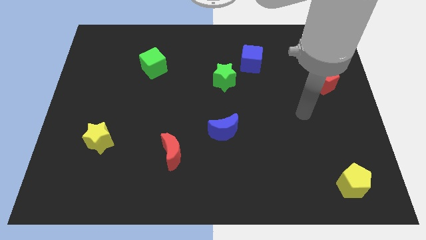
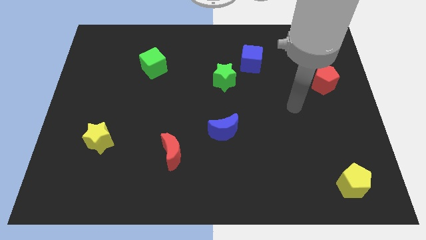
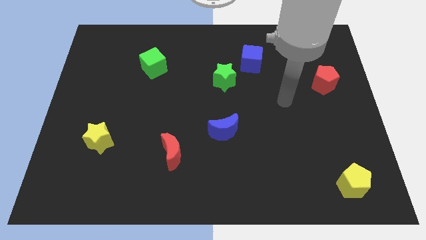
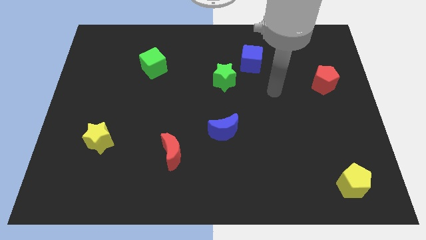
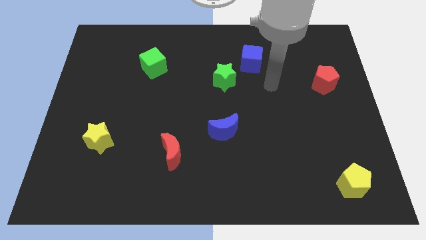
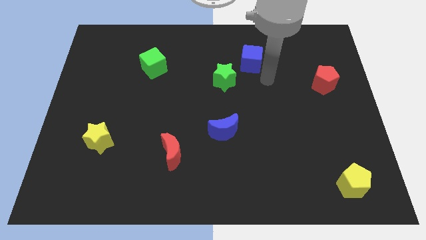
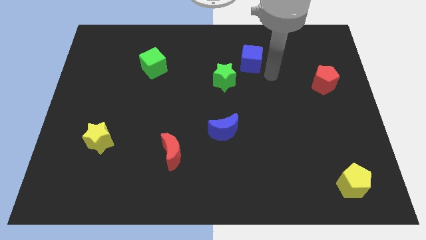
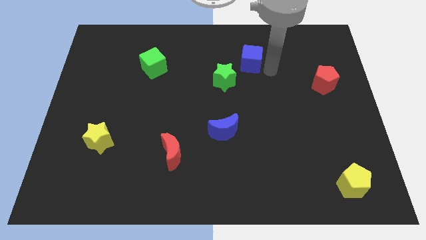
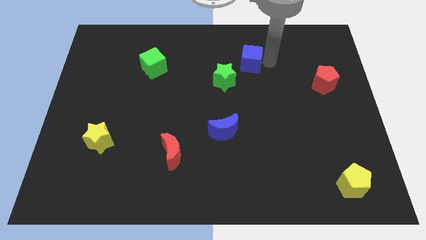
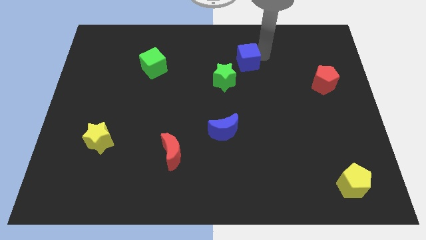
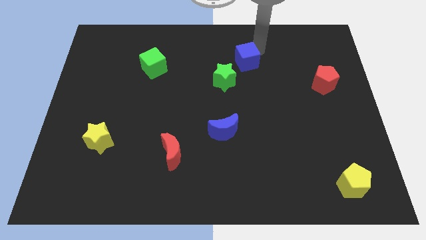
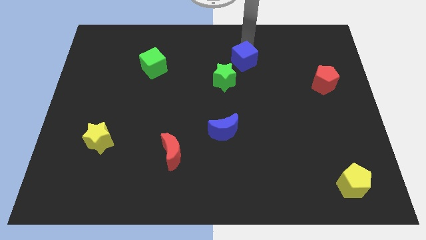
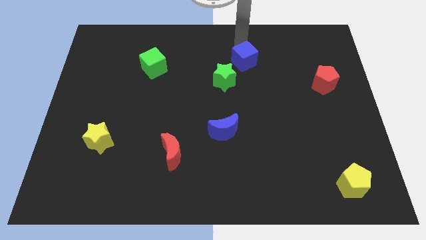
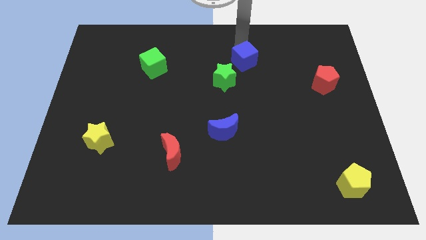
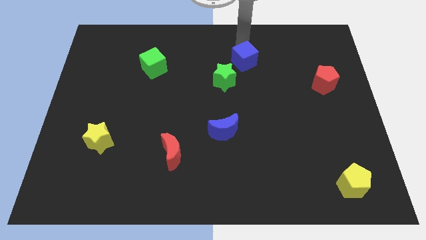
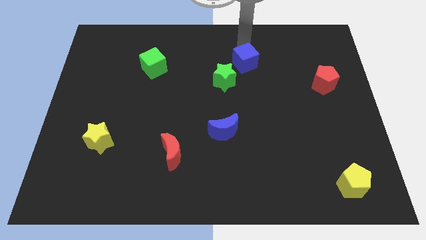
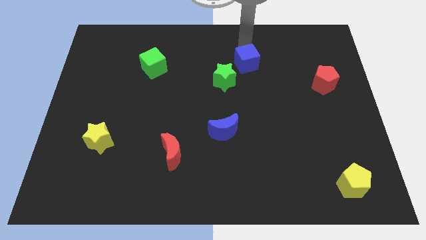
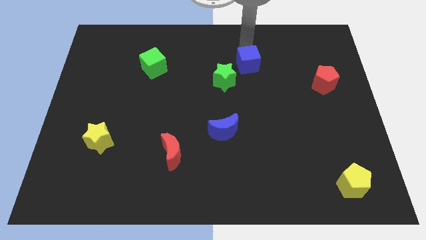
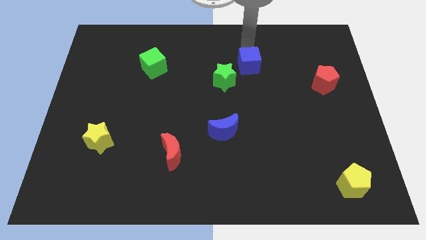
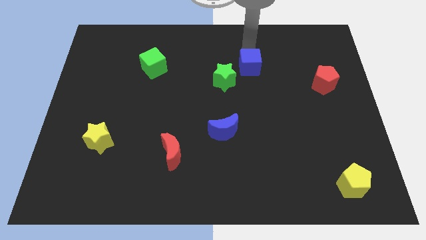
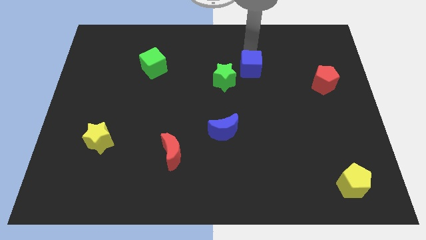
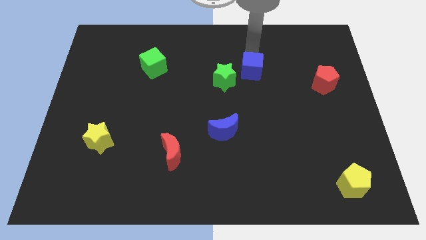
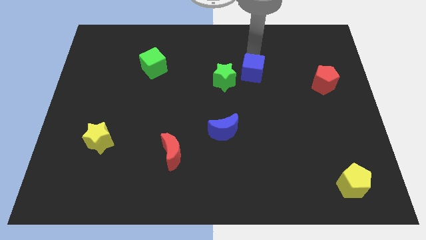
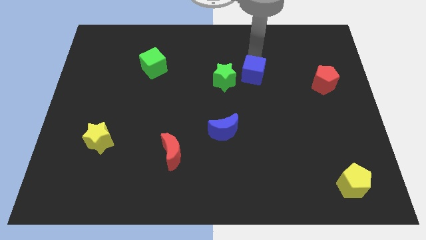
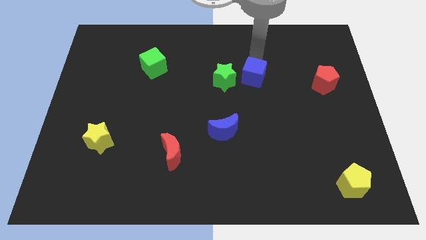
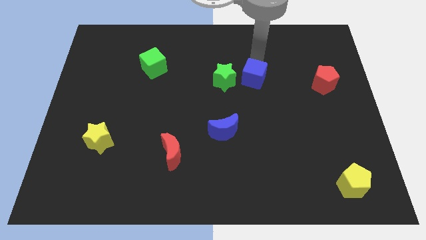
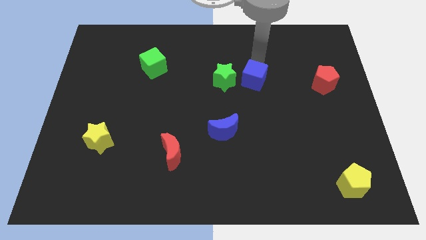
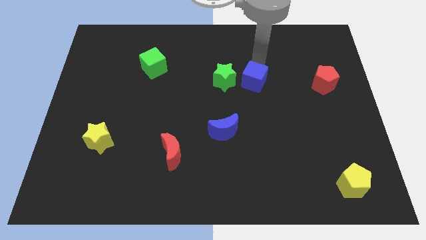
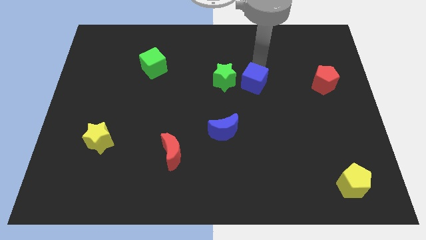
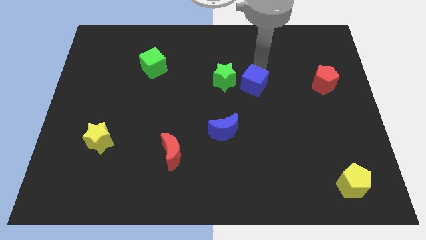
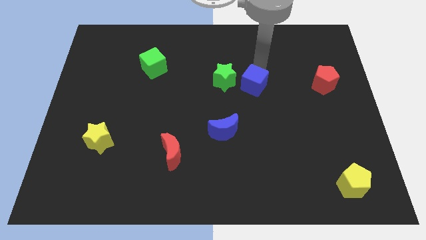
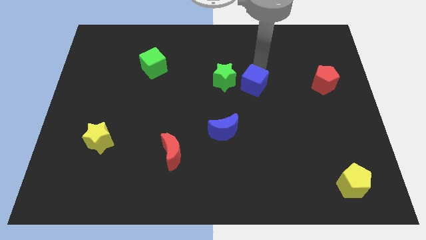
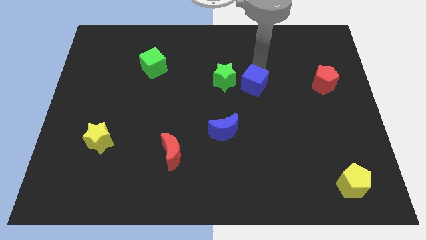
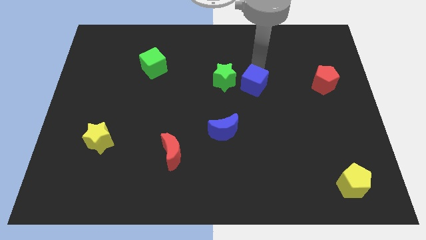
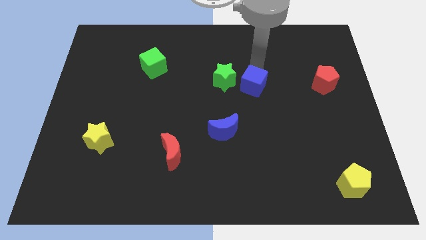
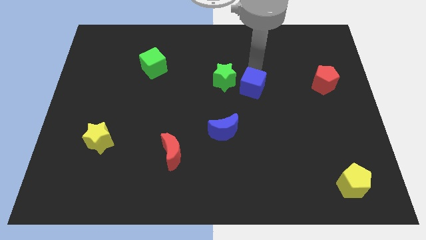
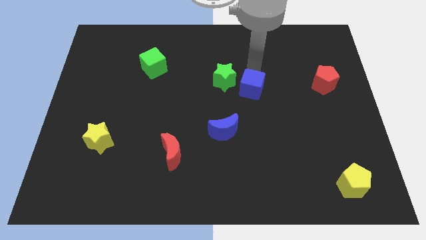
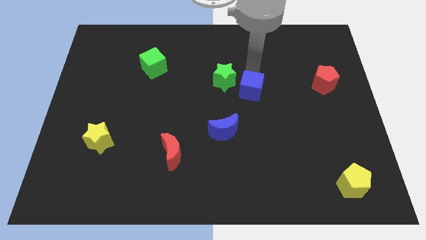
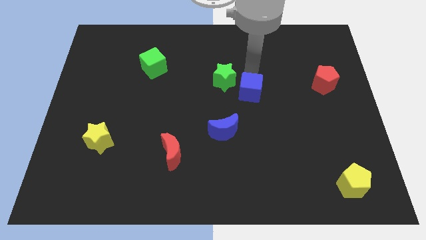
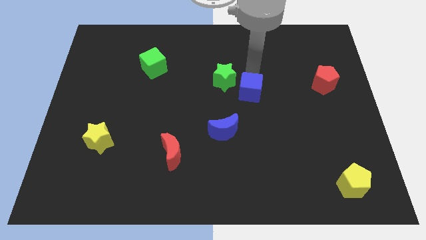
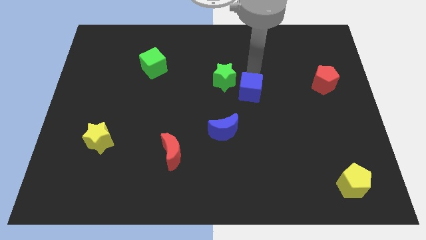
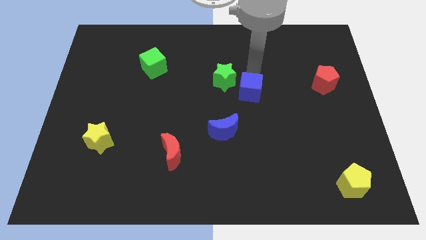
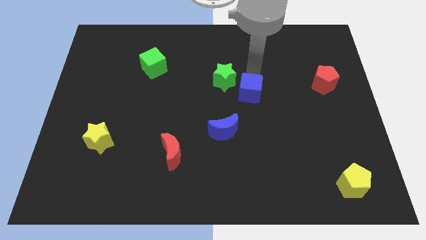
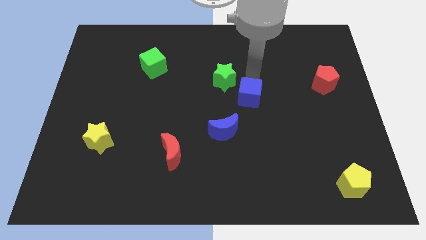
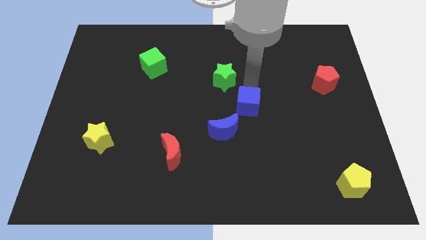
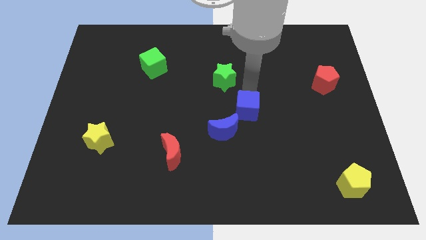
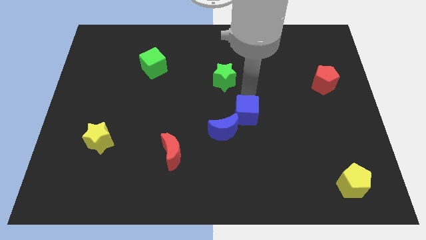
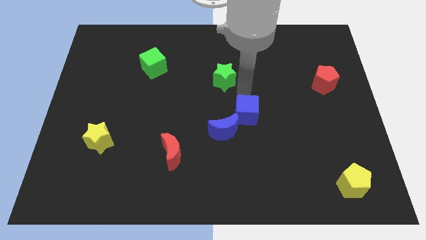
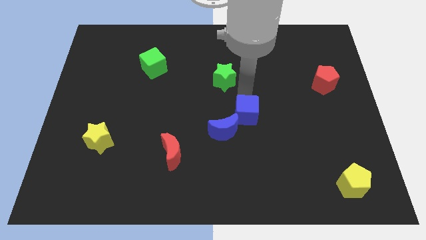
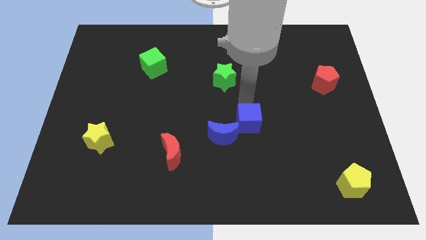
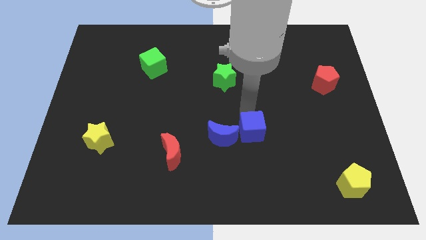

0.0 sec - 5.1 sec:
push the blue cube downwards

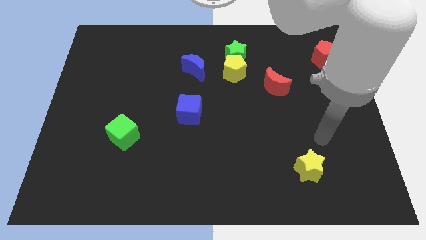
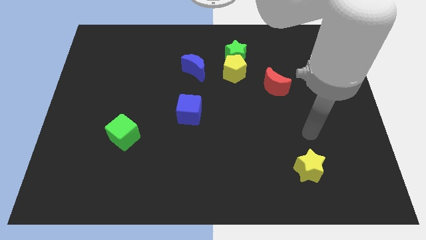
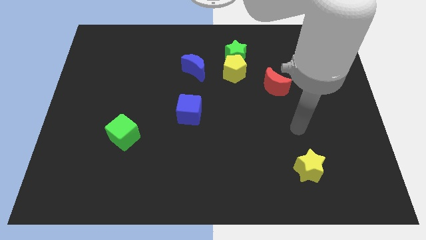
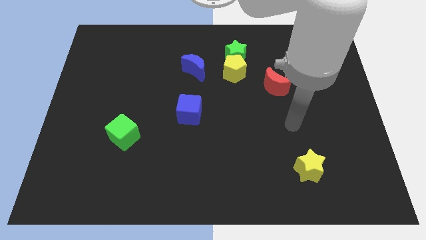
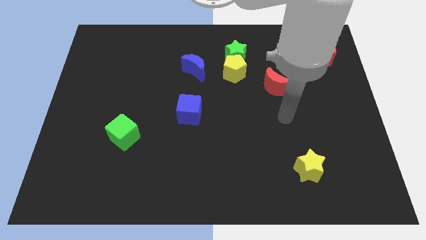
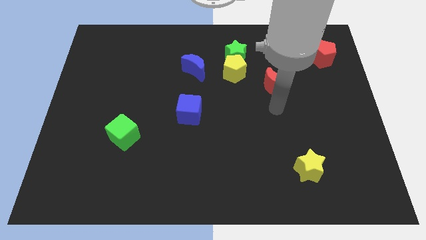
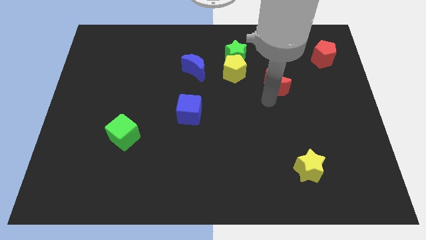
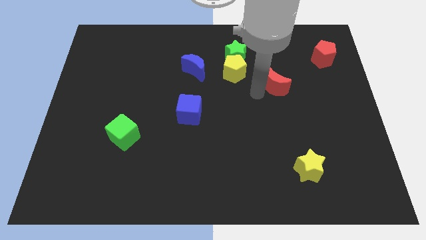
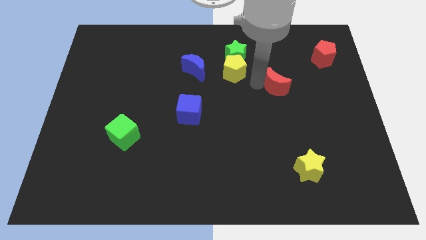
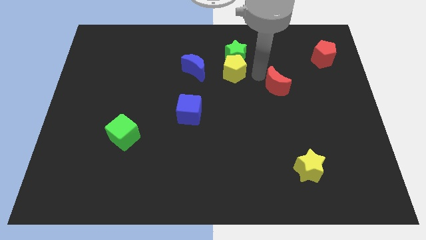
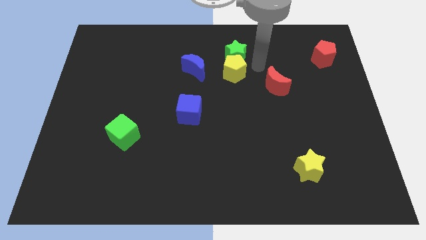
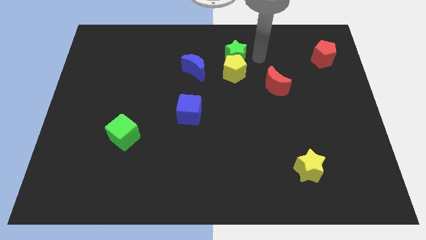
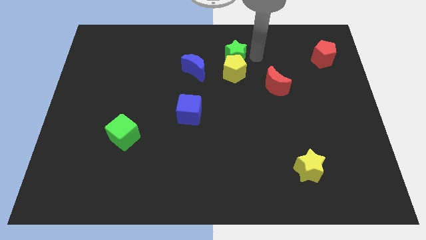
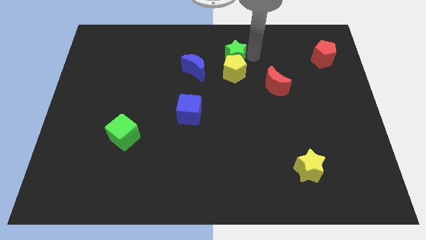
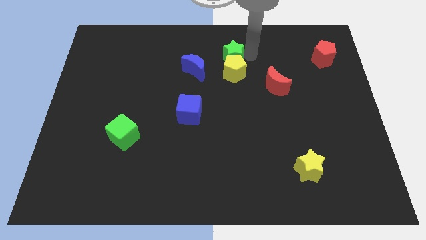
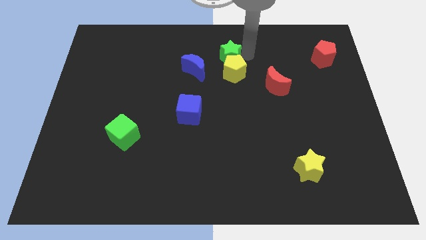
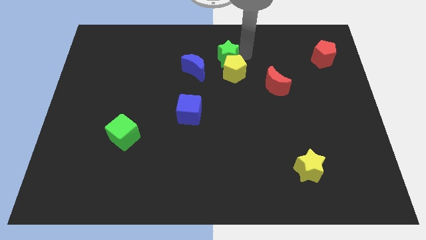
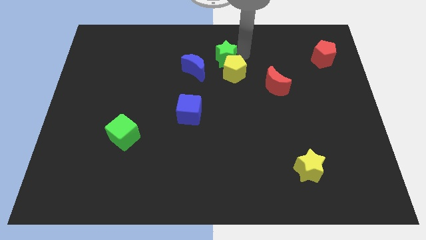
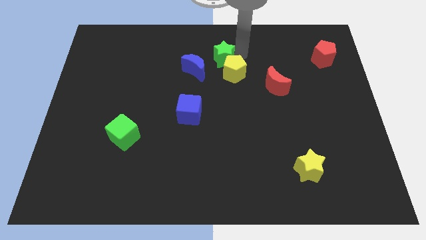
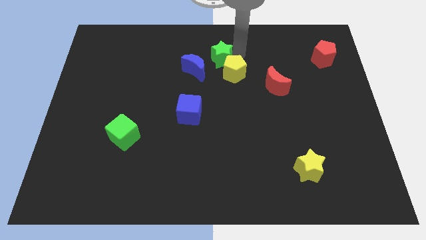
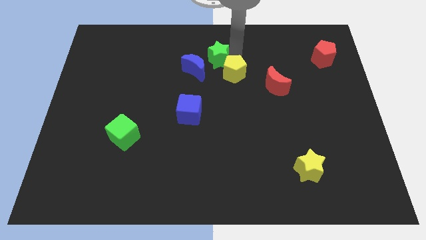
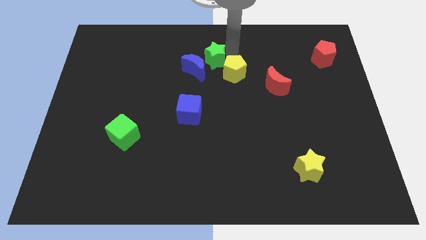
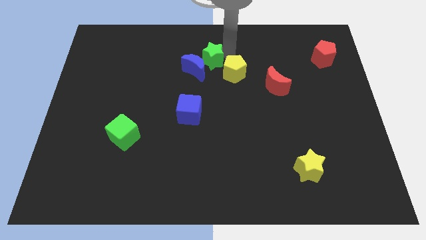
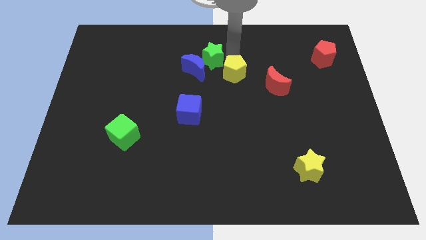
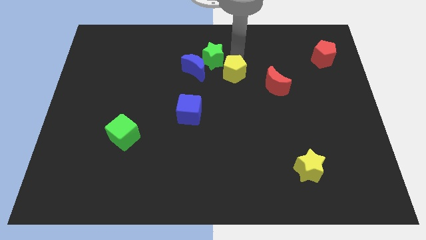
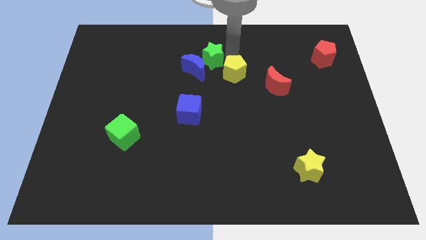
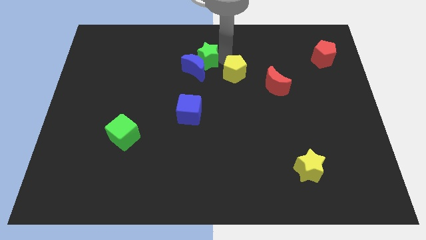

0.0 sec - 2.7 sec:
push the green star slightly to the left
